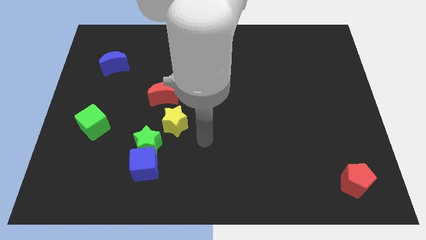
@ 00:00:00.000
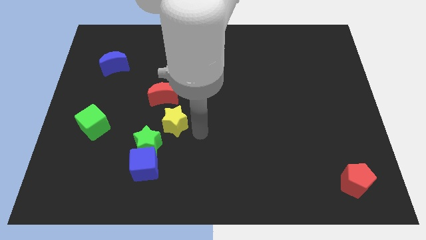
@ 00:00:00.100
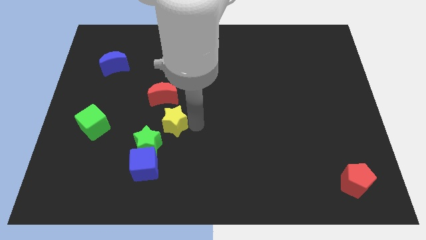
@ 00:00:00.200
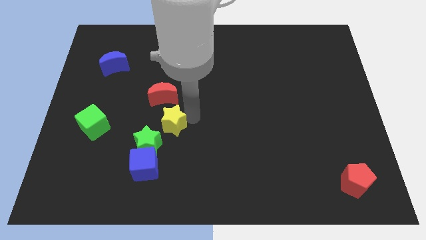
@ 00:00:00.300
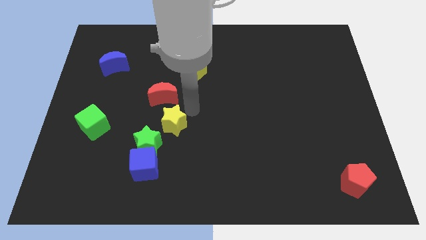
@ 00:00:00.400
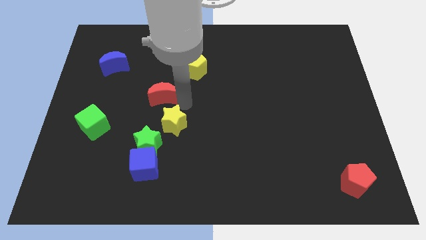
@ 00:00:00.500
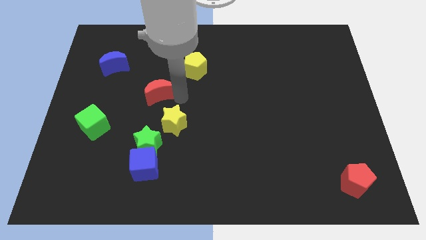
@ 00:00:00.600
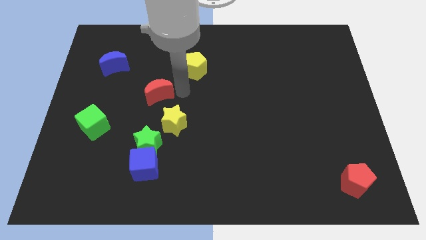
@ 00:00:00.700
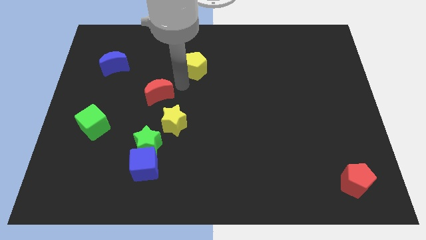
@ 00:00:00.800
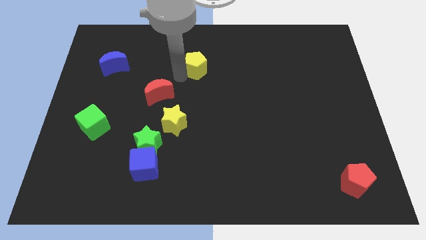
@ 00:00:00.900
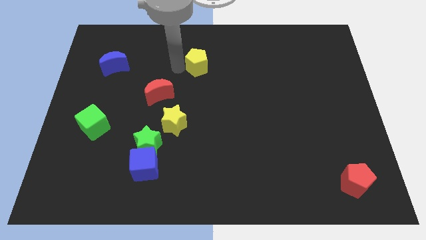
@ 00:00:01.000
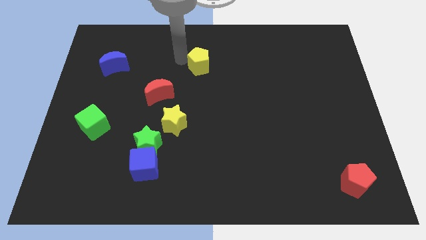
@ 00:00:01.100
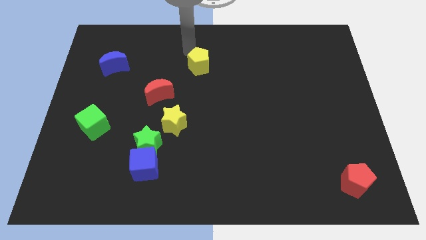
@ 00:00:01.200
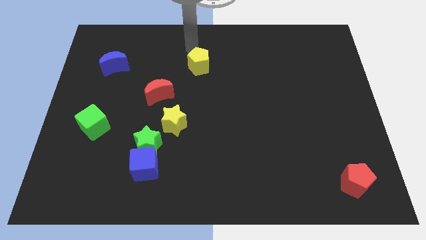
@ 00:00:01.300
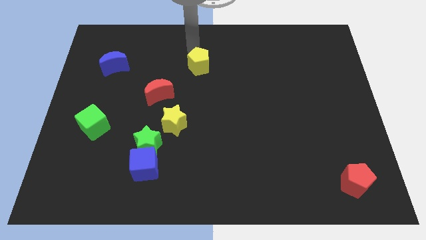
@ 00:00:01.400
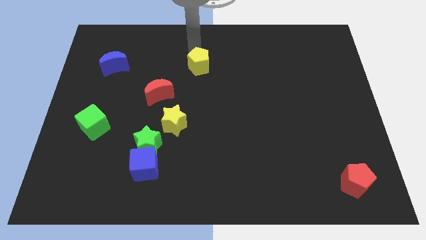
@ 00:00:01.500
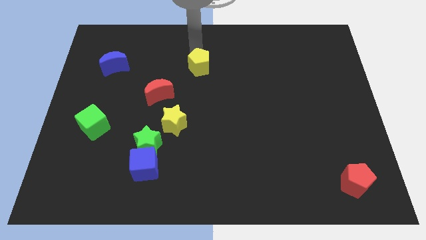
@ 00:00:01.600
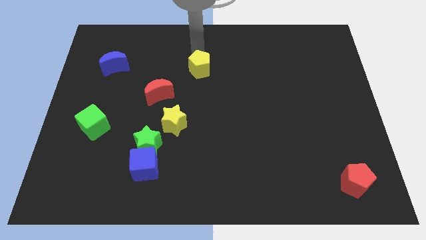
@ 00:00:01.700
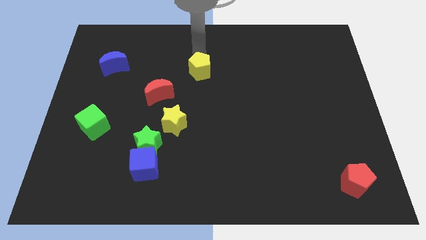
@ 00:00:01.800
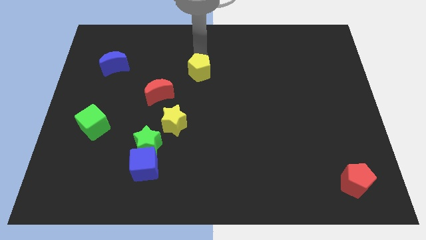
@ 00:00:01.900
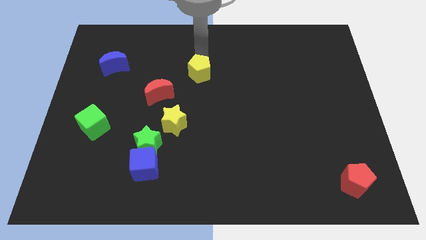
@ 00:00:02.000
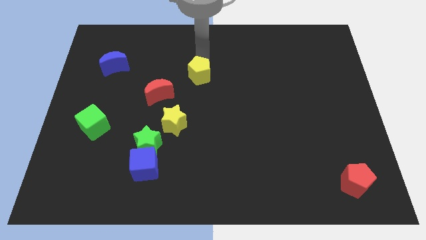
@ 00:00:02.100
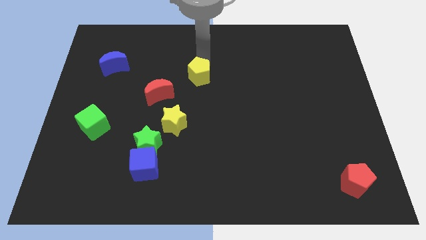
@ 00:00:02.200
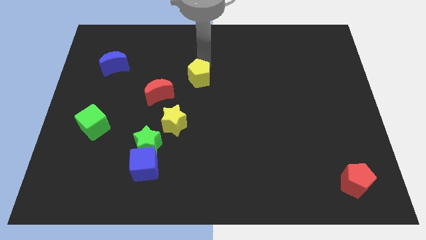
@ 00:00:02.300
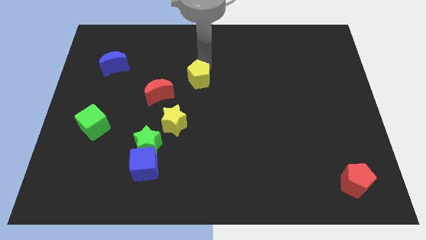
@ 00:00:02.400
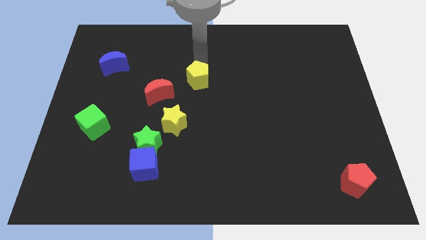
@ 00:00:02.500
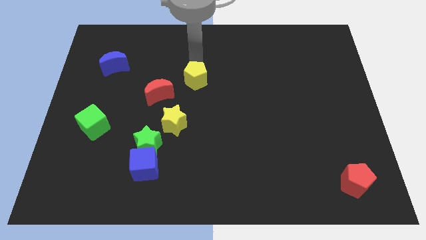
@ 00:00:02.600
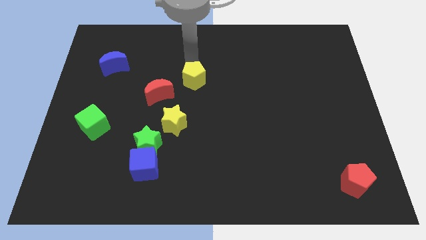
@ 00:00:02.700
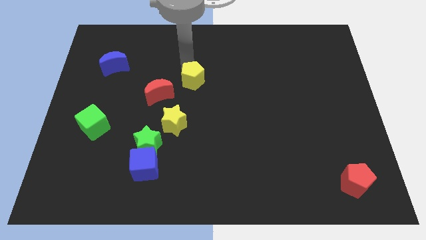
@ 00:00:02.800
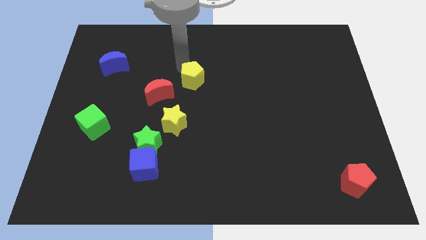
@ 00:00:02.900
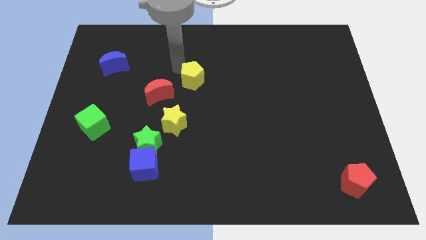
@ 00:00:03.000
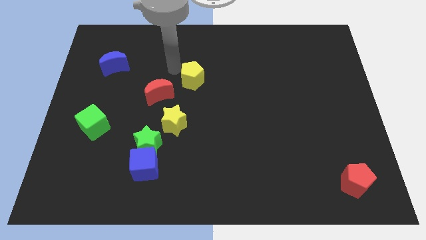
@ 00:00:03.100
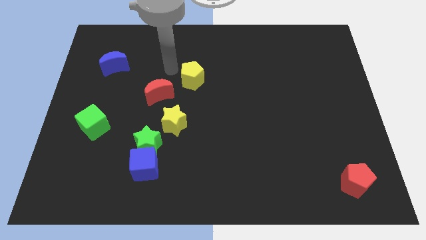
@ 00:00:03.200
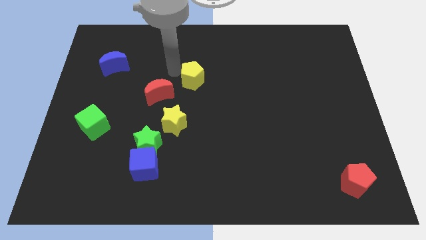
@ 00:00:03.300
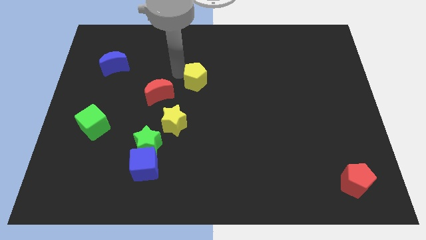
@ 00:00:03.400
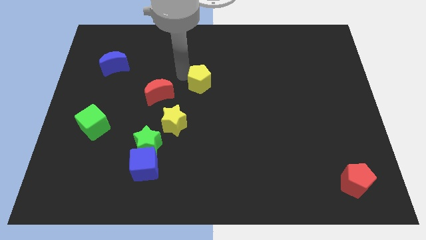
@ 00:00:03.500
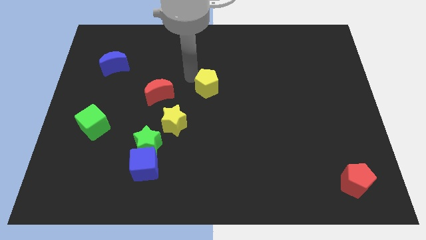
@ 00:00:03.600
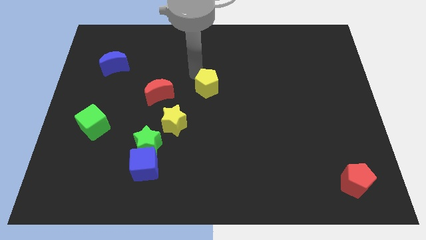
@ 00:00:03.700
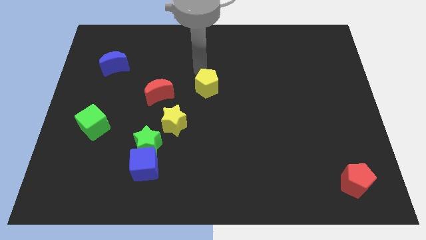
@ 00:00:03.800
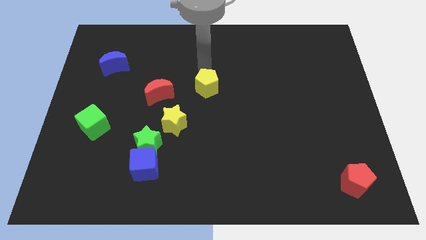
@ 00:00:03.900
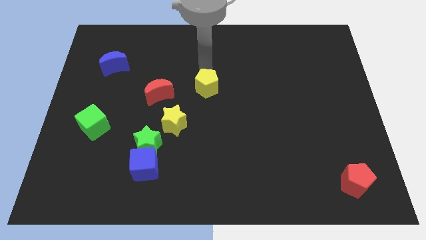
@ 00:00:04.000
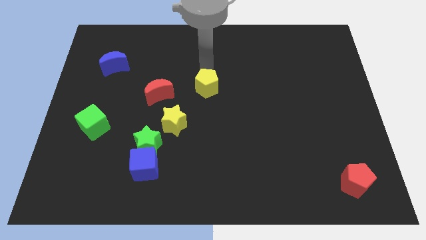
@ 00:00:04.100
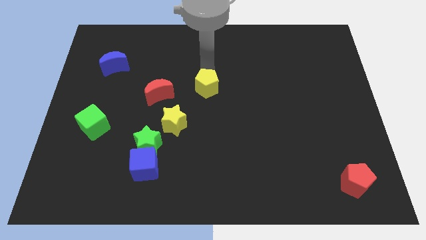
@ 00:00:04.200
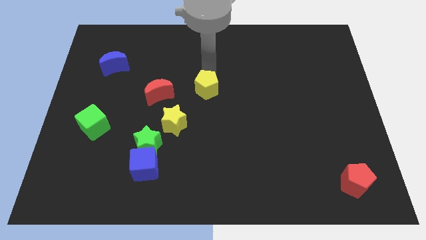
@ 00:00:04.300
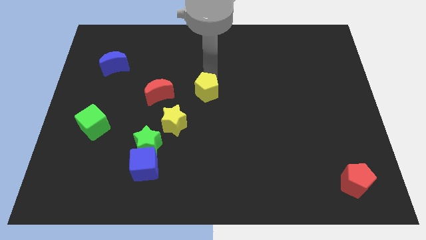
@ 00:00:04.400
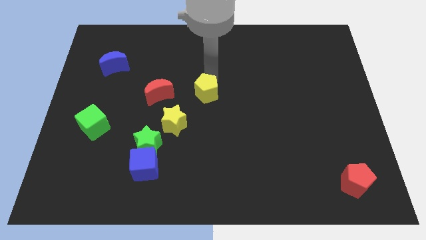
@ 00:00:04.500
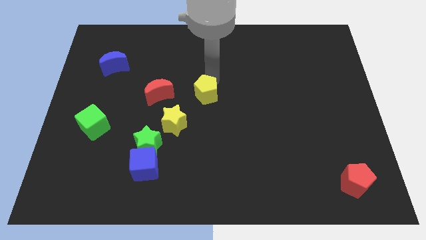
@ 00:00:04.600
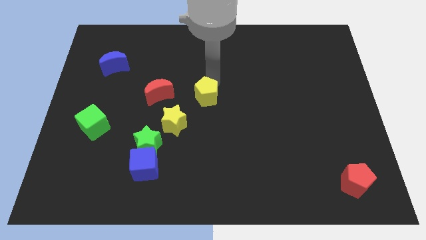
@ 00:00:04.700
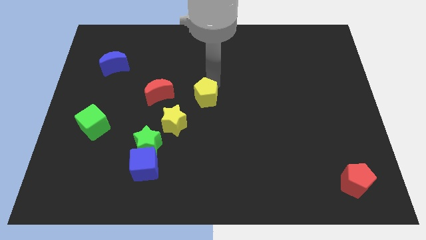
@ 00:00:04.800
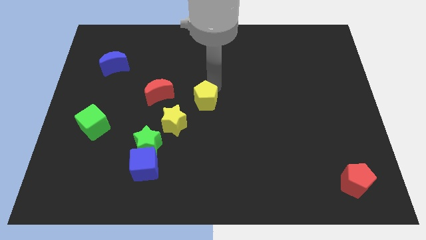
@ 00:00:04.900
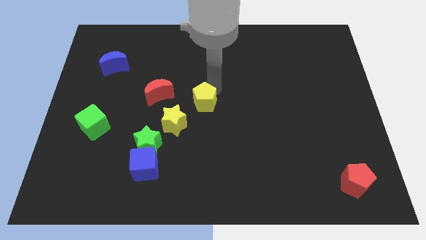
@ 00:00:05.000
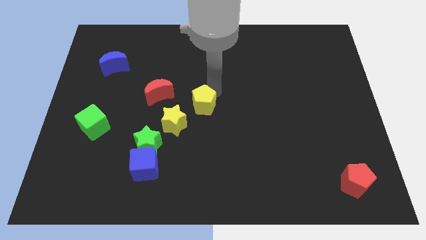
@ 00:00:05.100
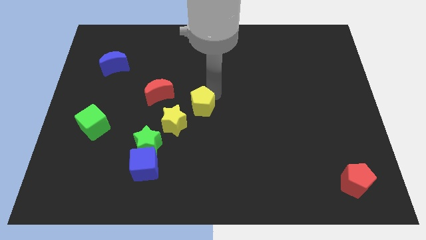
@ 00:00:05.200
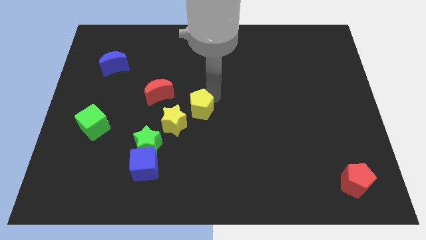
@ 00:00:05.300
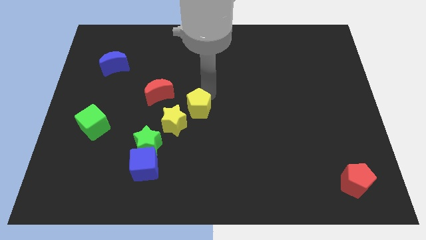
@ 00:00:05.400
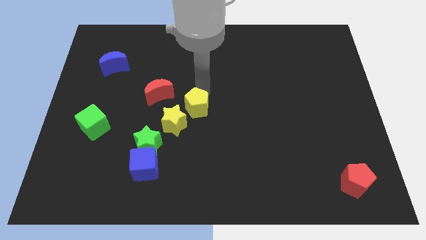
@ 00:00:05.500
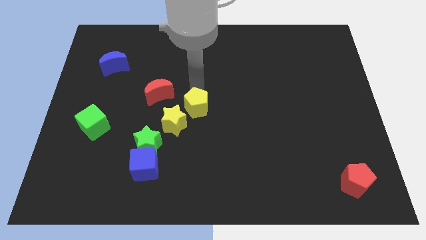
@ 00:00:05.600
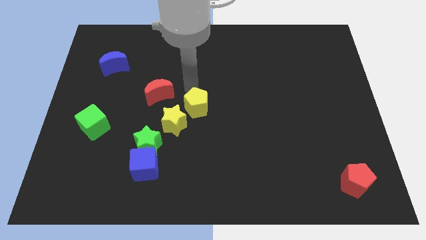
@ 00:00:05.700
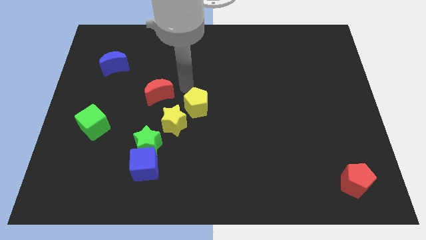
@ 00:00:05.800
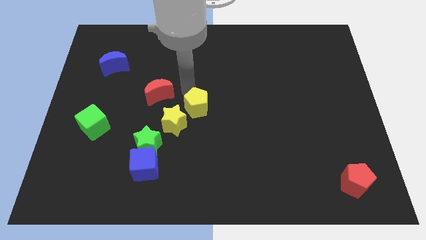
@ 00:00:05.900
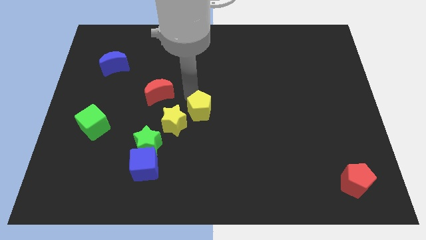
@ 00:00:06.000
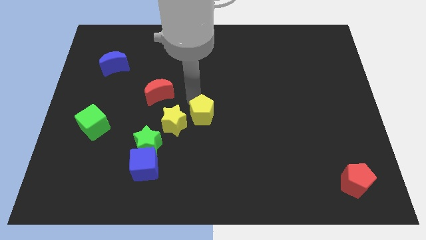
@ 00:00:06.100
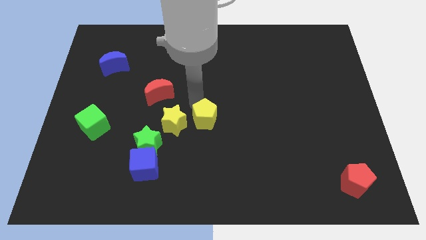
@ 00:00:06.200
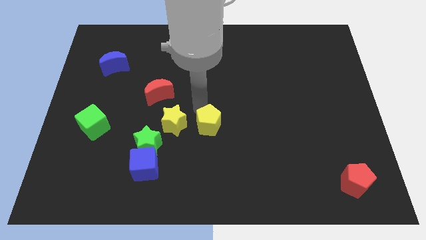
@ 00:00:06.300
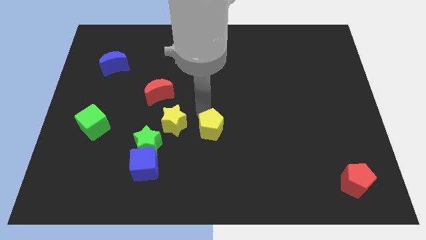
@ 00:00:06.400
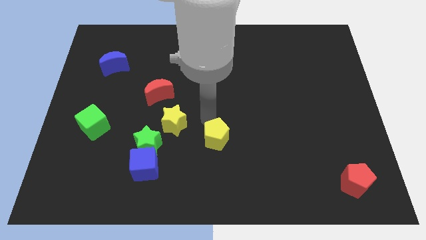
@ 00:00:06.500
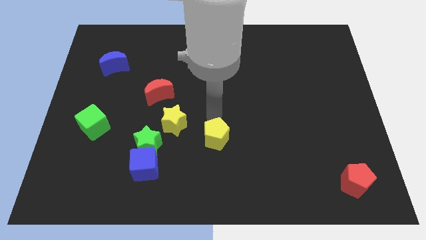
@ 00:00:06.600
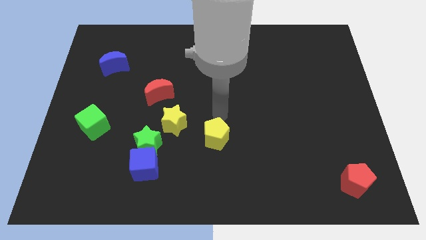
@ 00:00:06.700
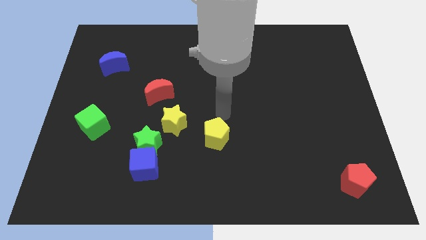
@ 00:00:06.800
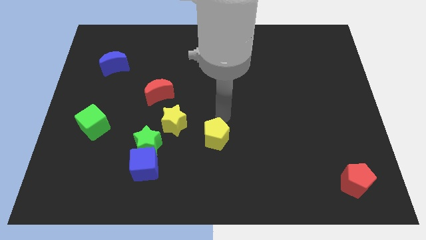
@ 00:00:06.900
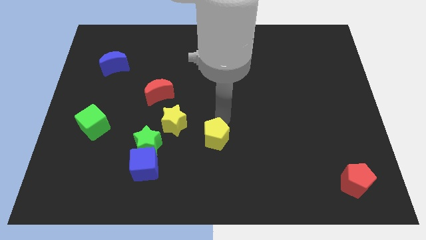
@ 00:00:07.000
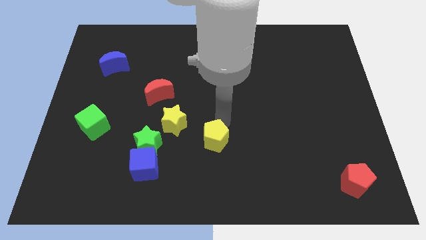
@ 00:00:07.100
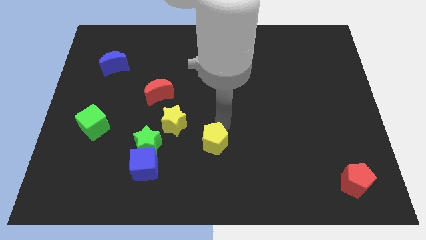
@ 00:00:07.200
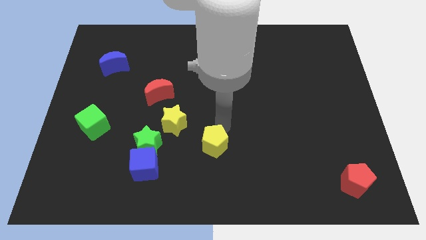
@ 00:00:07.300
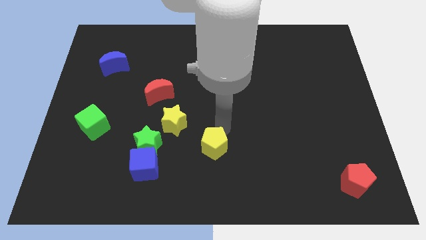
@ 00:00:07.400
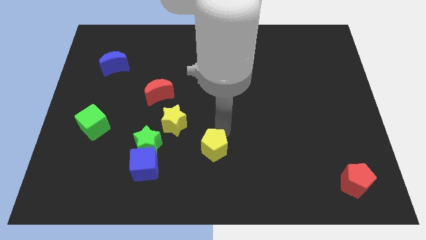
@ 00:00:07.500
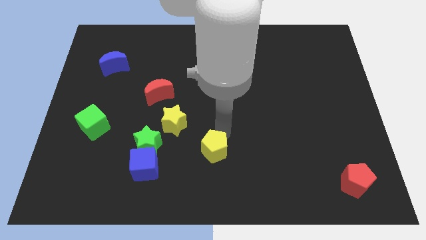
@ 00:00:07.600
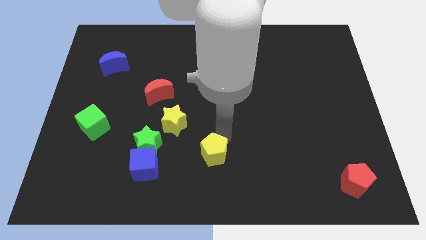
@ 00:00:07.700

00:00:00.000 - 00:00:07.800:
put the yellow pentagon to the bottom
